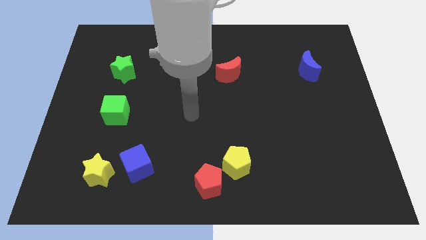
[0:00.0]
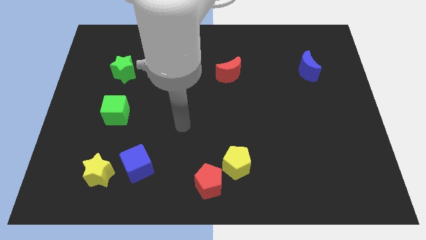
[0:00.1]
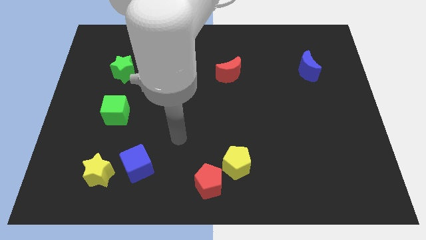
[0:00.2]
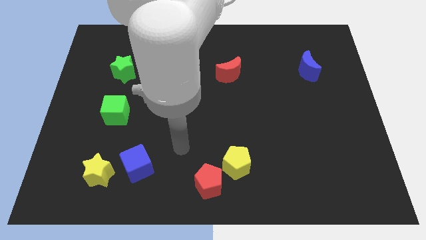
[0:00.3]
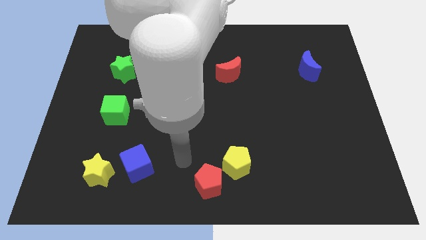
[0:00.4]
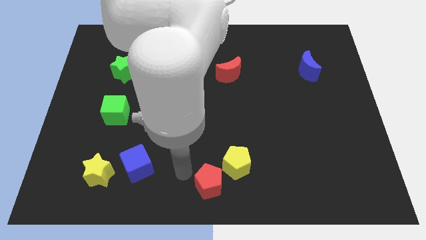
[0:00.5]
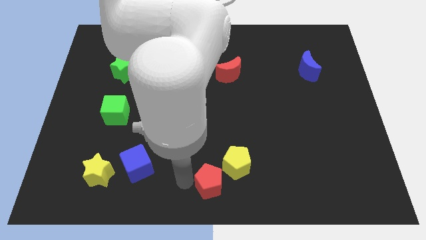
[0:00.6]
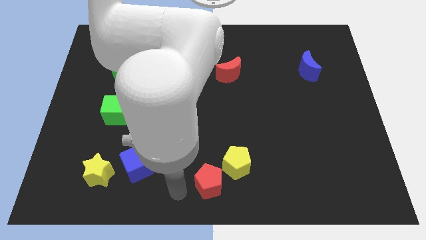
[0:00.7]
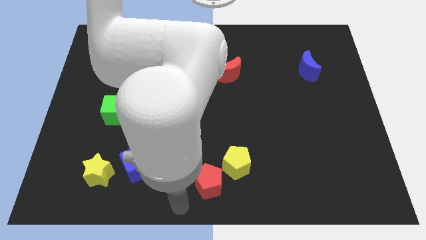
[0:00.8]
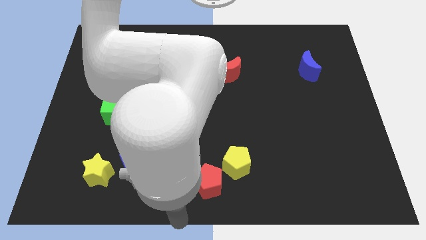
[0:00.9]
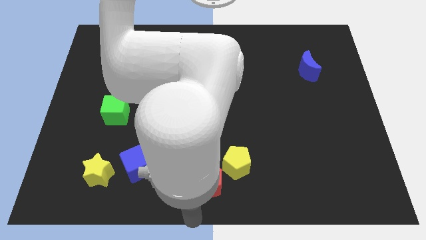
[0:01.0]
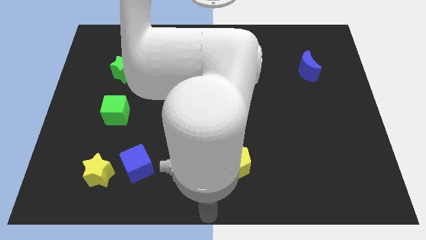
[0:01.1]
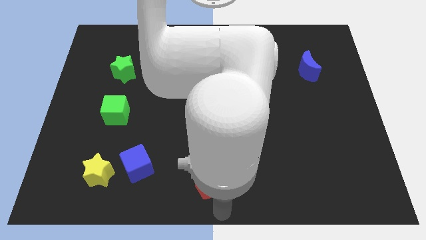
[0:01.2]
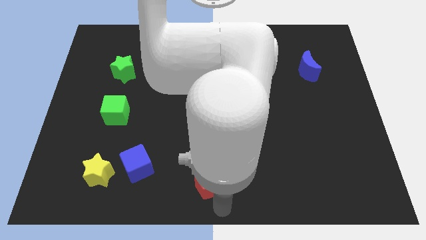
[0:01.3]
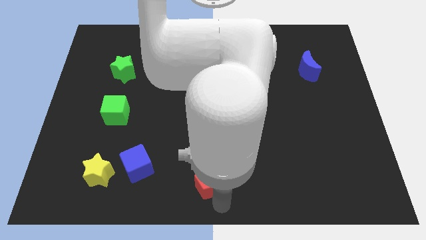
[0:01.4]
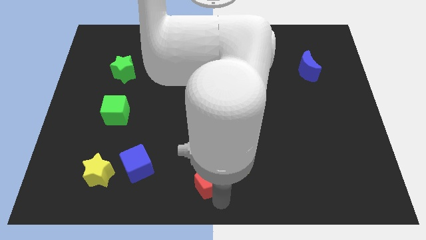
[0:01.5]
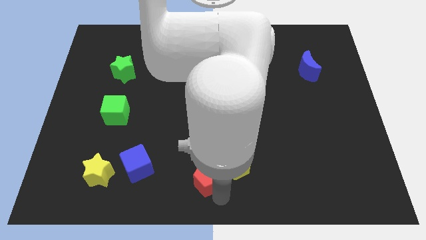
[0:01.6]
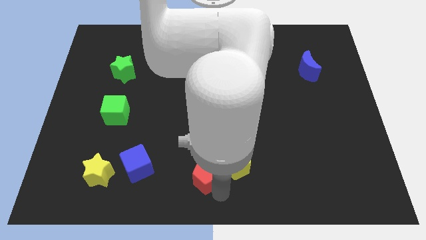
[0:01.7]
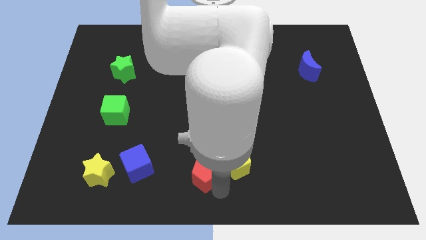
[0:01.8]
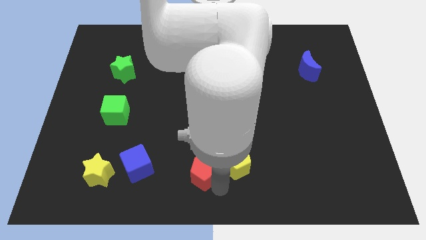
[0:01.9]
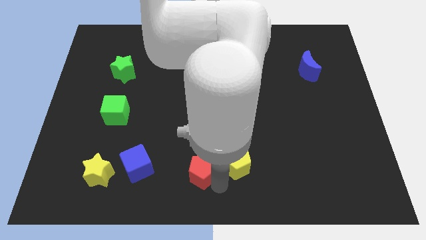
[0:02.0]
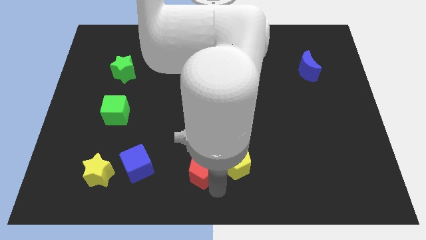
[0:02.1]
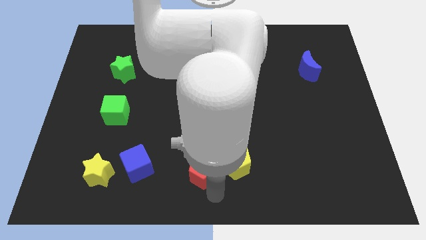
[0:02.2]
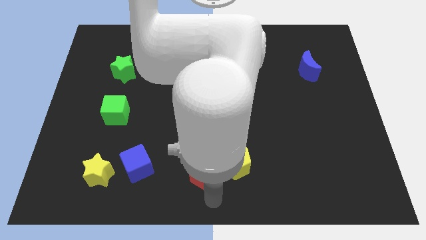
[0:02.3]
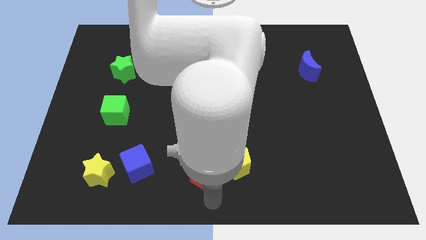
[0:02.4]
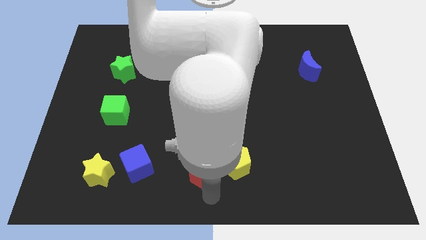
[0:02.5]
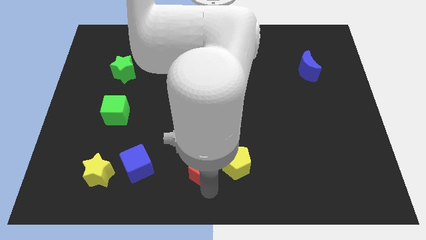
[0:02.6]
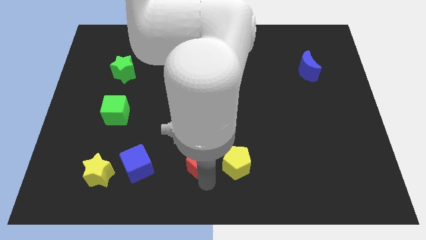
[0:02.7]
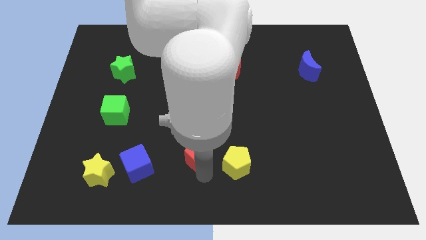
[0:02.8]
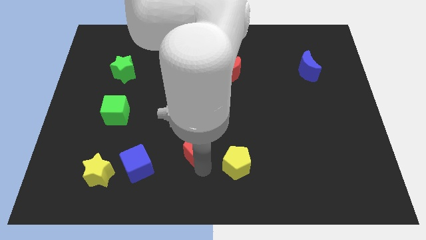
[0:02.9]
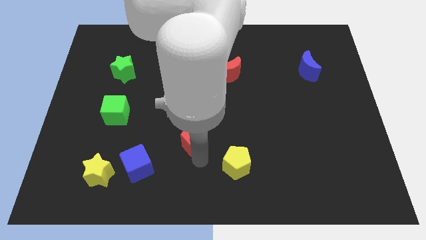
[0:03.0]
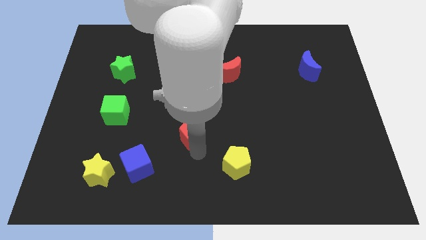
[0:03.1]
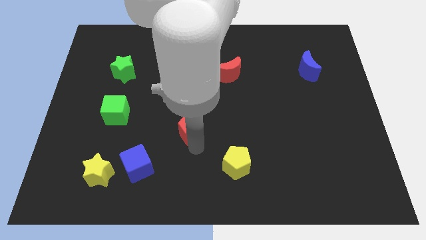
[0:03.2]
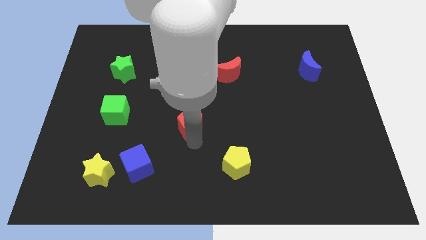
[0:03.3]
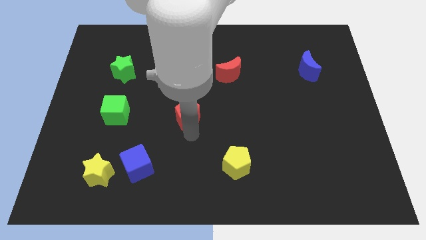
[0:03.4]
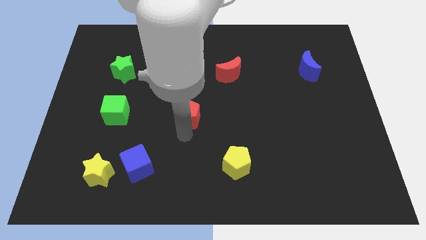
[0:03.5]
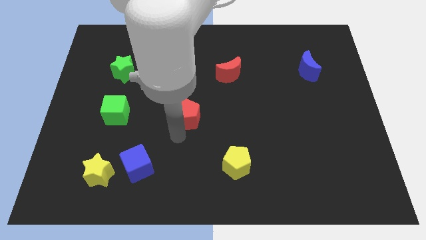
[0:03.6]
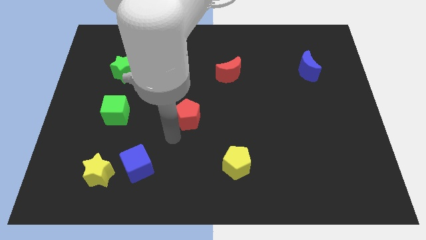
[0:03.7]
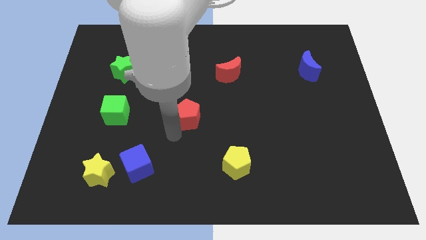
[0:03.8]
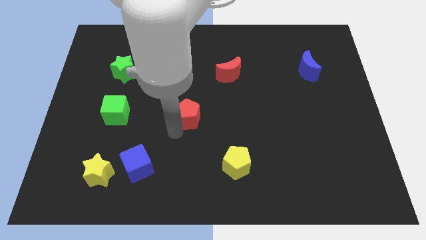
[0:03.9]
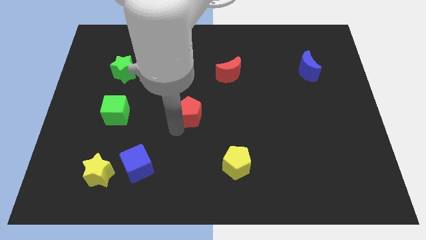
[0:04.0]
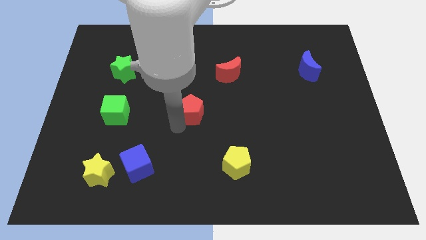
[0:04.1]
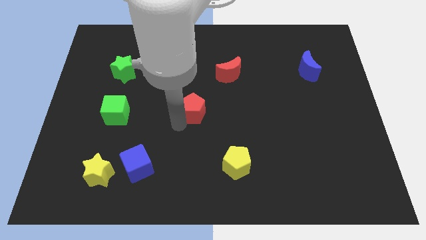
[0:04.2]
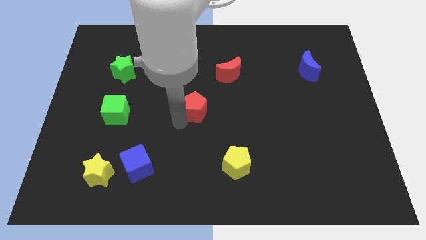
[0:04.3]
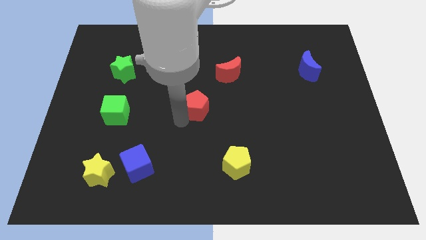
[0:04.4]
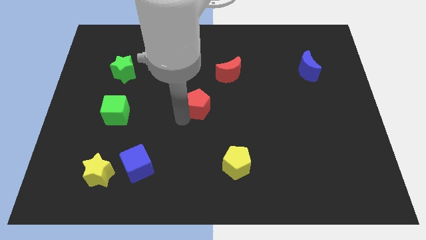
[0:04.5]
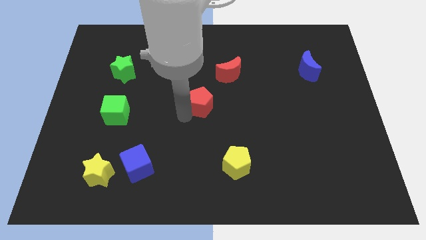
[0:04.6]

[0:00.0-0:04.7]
move the red pentagon upwards

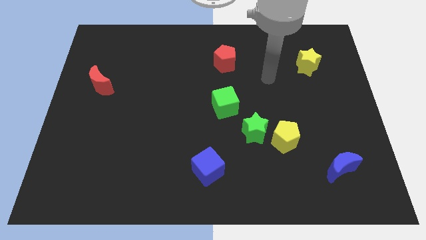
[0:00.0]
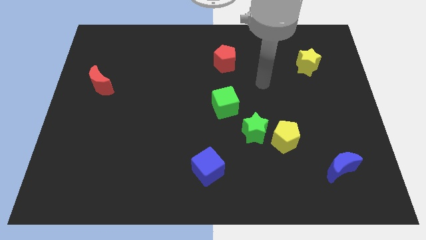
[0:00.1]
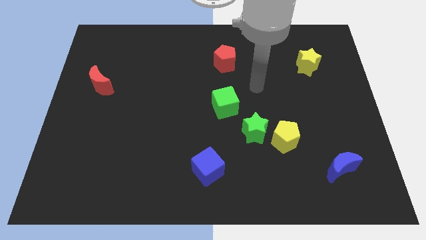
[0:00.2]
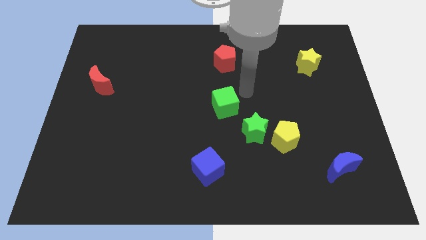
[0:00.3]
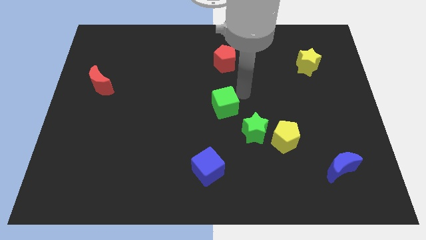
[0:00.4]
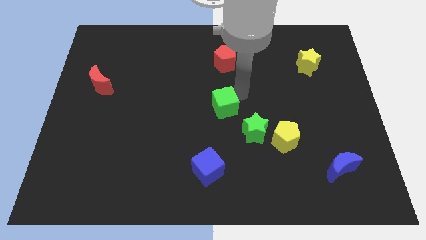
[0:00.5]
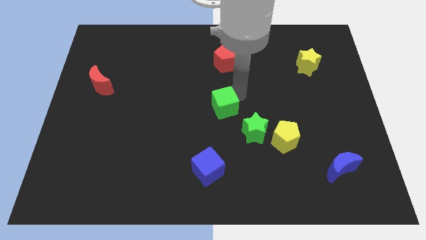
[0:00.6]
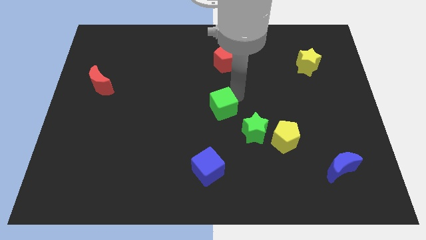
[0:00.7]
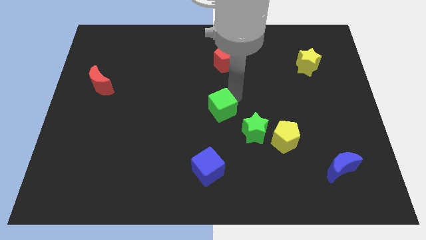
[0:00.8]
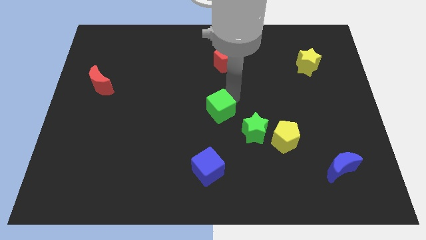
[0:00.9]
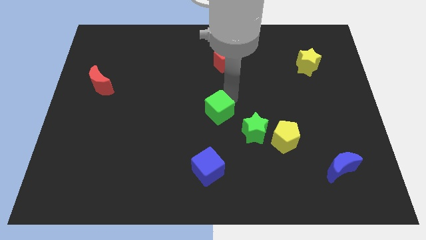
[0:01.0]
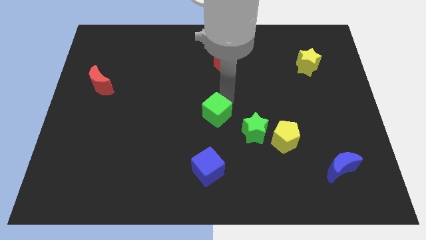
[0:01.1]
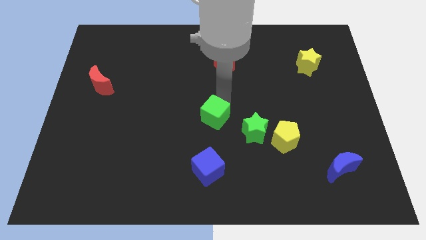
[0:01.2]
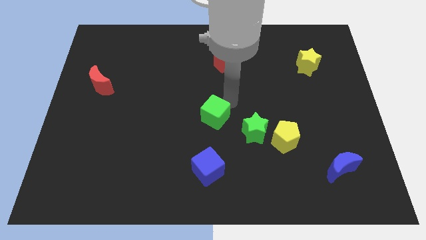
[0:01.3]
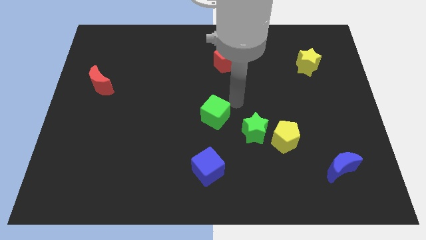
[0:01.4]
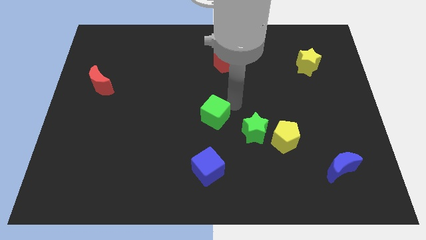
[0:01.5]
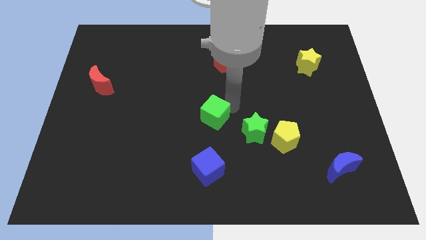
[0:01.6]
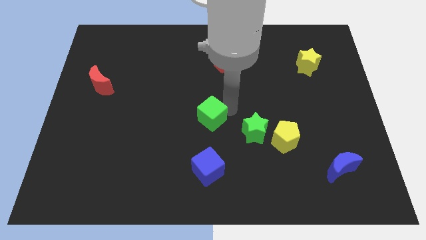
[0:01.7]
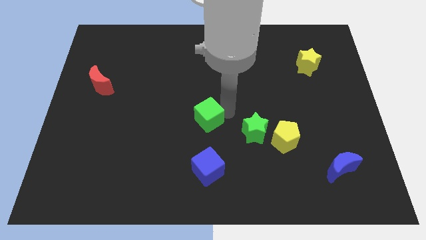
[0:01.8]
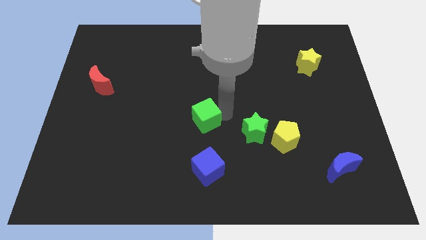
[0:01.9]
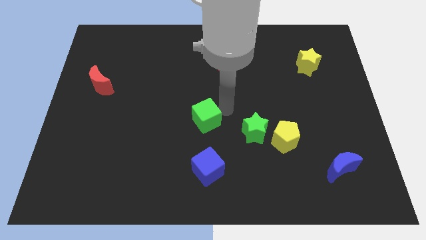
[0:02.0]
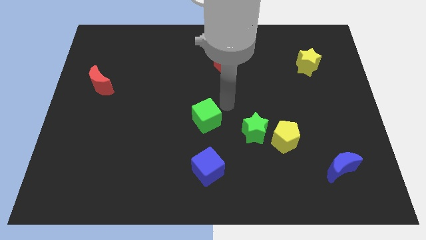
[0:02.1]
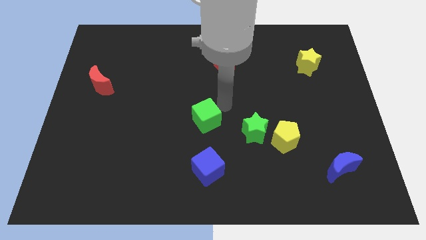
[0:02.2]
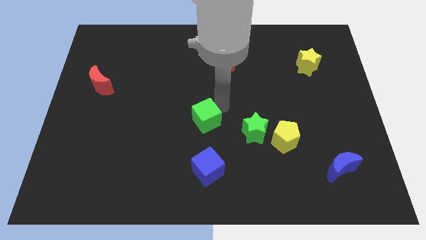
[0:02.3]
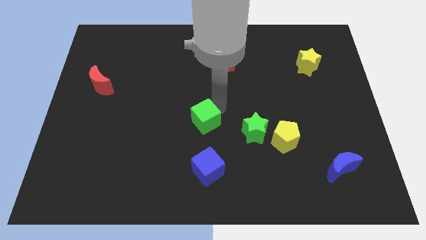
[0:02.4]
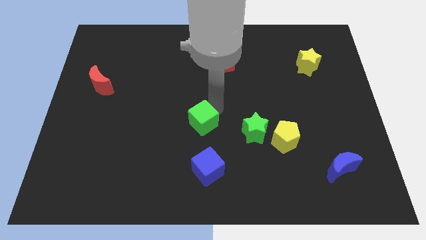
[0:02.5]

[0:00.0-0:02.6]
move the green cube a bit downwards and then left

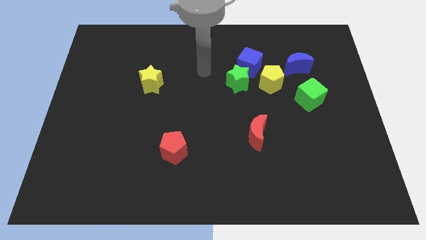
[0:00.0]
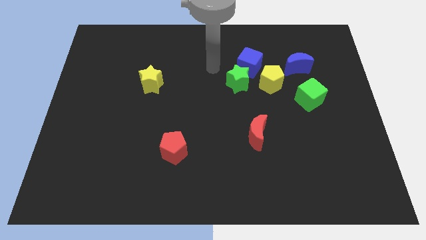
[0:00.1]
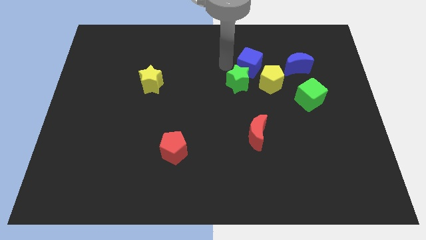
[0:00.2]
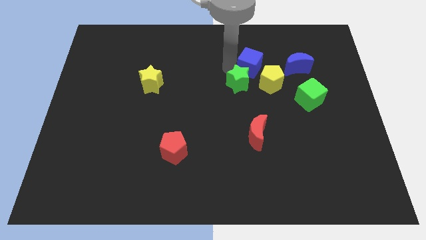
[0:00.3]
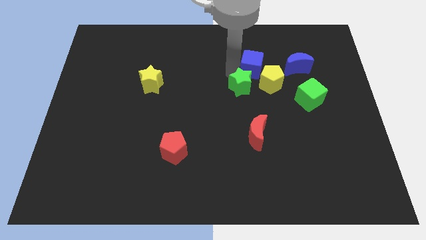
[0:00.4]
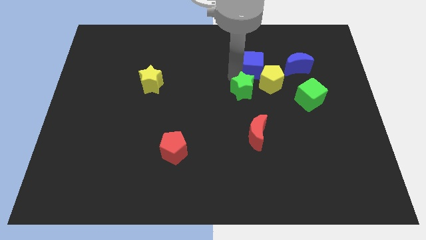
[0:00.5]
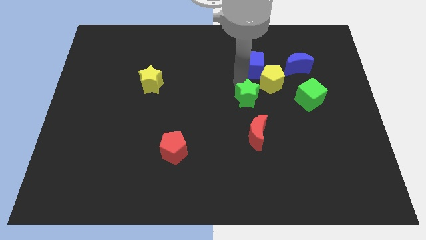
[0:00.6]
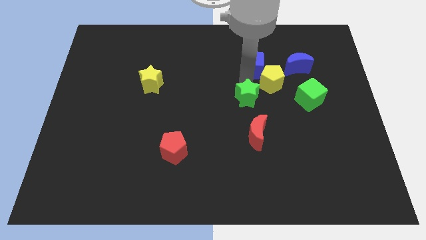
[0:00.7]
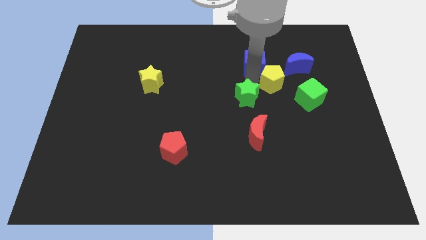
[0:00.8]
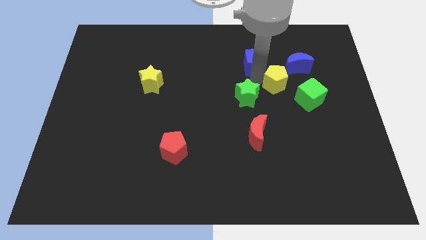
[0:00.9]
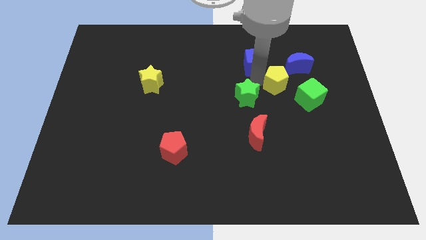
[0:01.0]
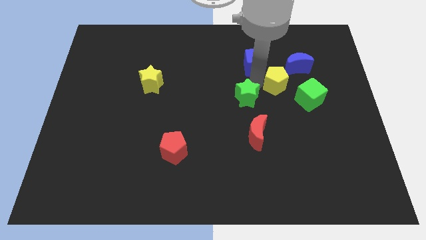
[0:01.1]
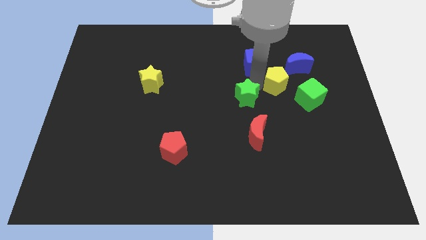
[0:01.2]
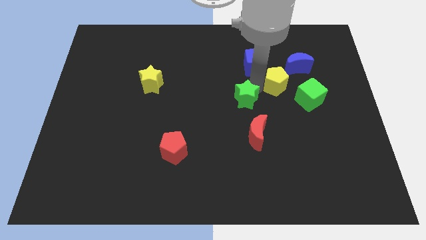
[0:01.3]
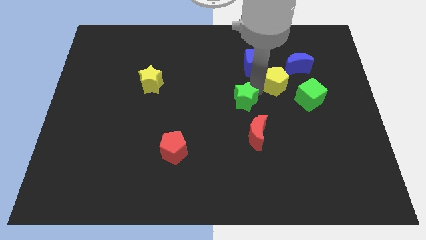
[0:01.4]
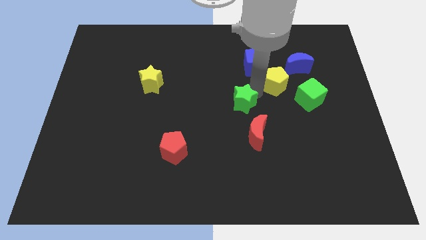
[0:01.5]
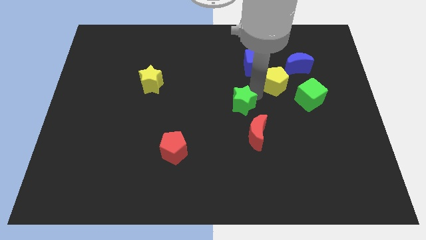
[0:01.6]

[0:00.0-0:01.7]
slightly push the green star downwards
